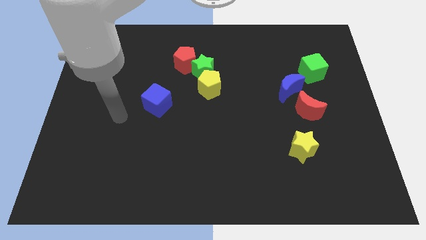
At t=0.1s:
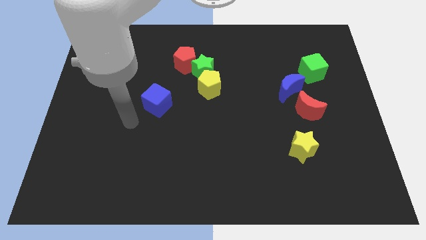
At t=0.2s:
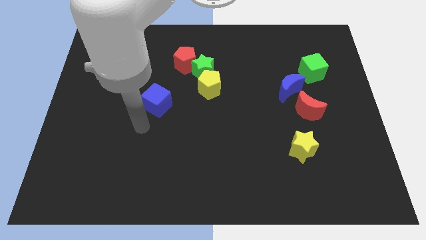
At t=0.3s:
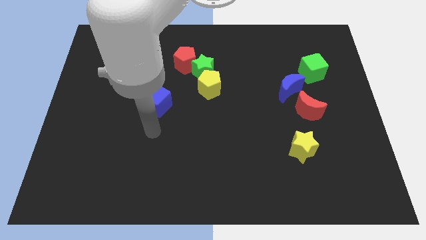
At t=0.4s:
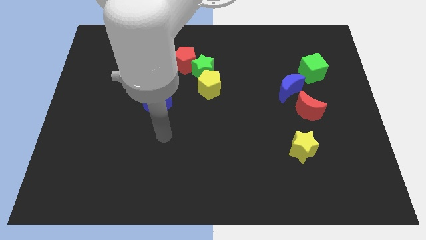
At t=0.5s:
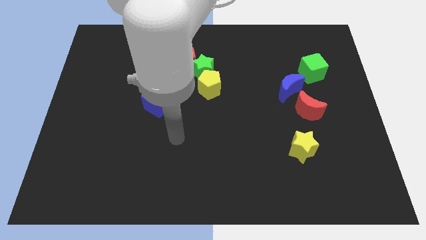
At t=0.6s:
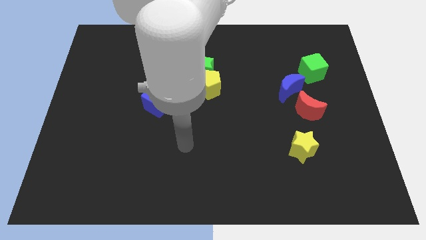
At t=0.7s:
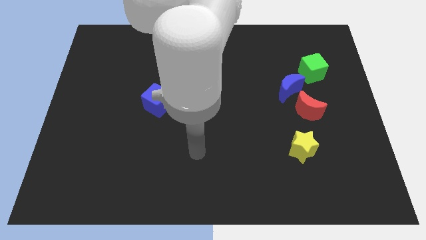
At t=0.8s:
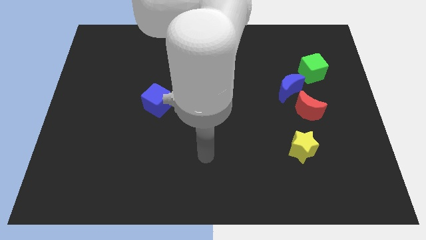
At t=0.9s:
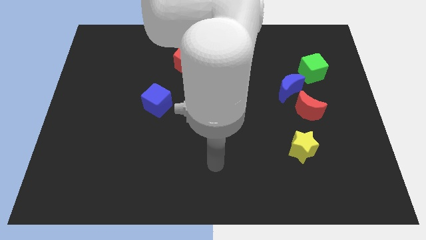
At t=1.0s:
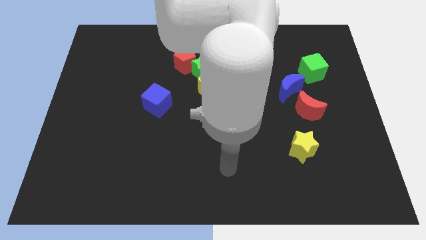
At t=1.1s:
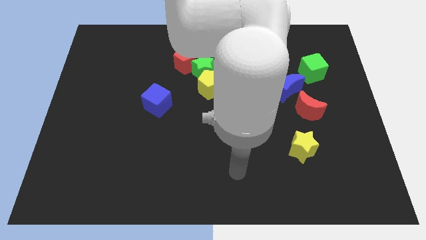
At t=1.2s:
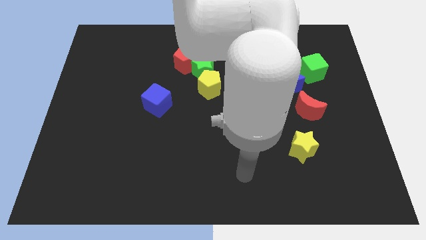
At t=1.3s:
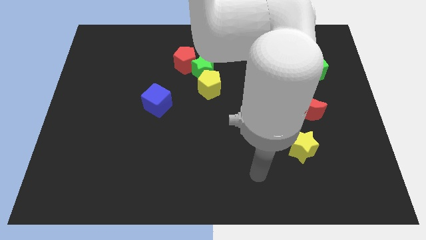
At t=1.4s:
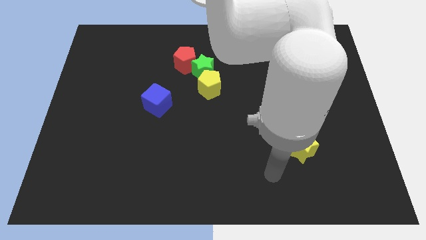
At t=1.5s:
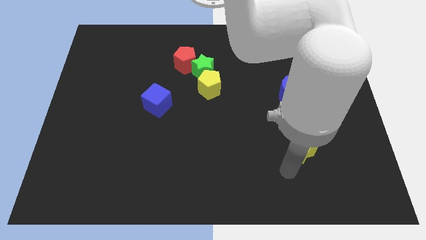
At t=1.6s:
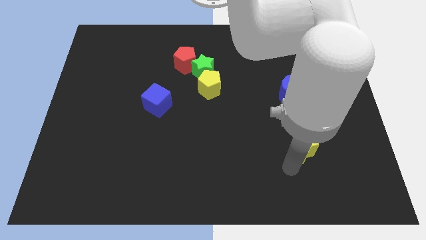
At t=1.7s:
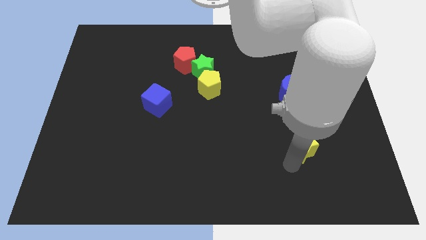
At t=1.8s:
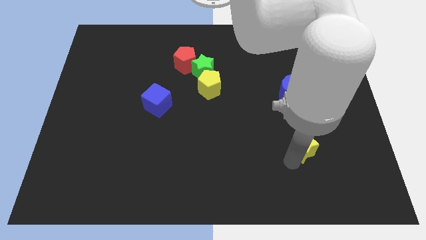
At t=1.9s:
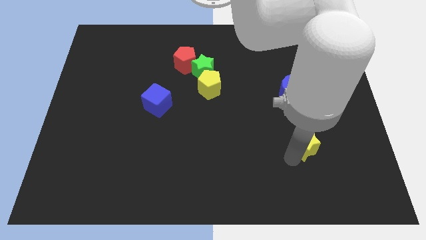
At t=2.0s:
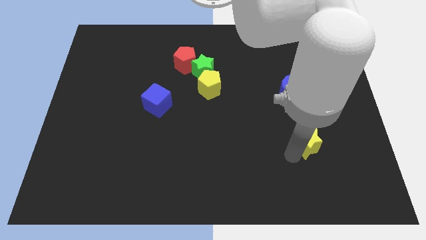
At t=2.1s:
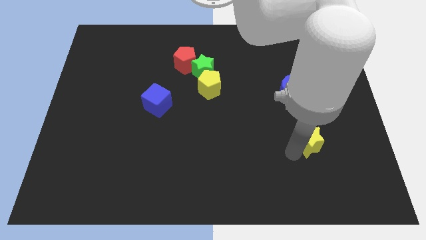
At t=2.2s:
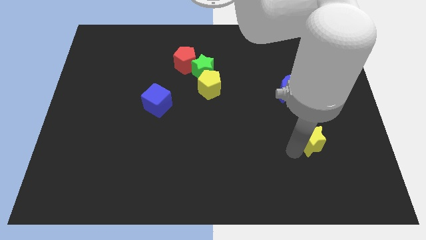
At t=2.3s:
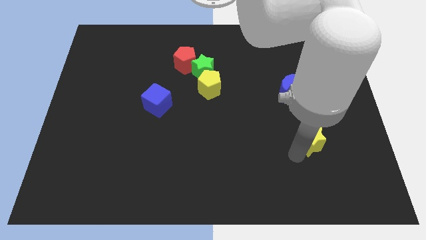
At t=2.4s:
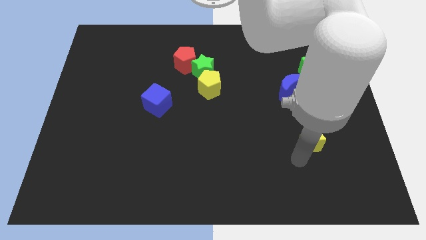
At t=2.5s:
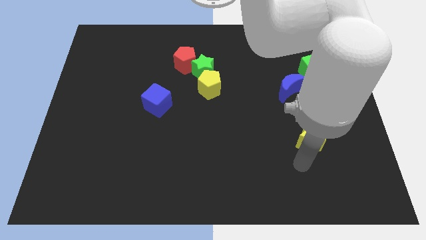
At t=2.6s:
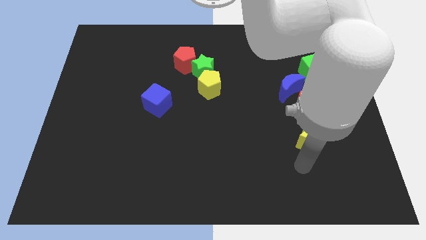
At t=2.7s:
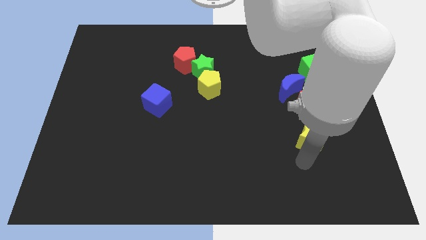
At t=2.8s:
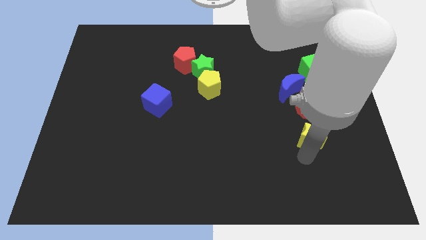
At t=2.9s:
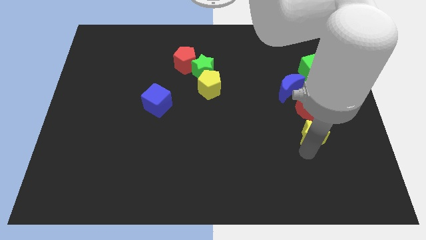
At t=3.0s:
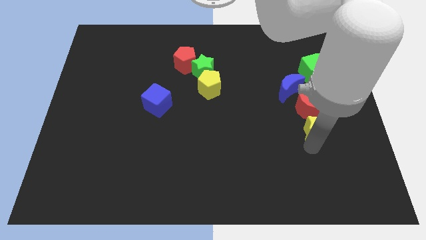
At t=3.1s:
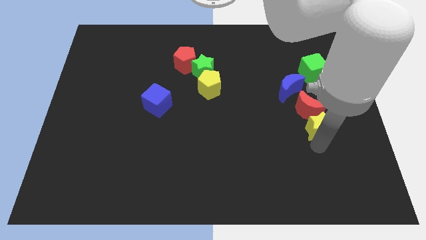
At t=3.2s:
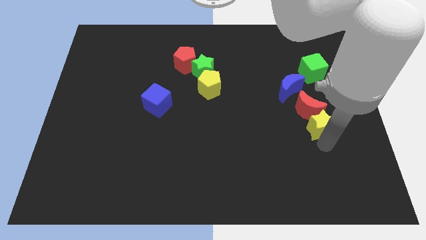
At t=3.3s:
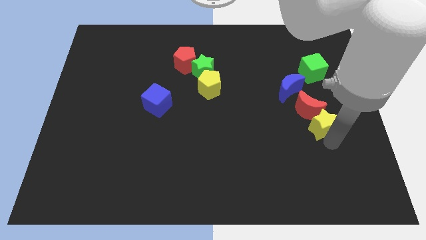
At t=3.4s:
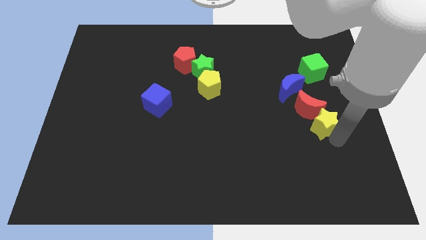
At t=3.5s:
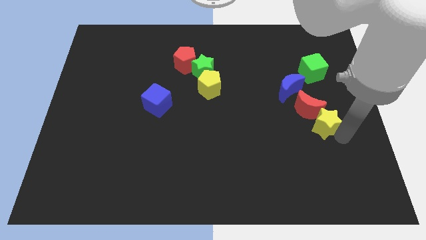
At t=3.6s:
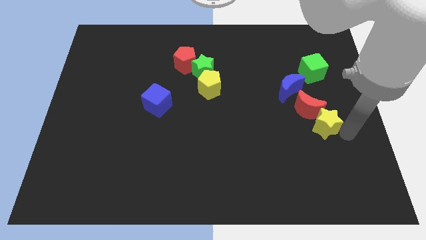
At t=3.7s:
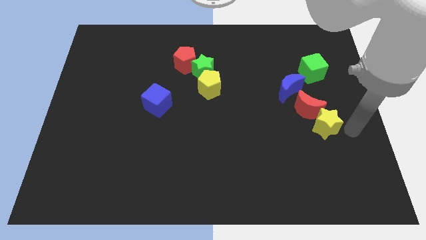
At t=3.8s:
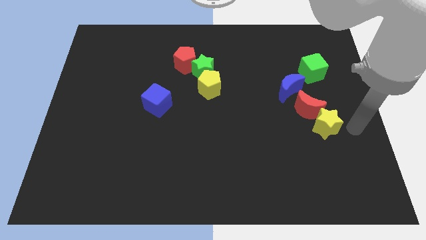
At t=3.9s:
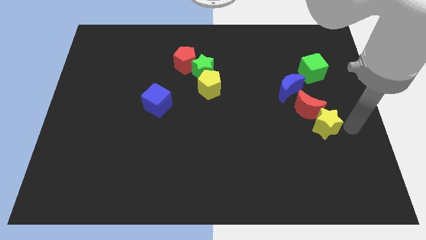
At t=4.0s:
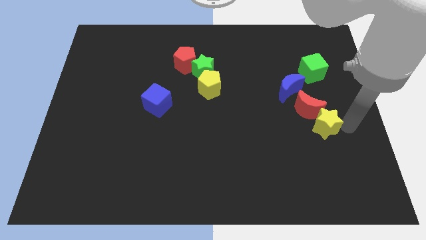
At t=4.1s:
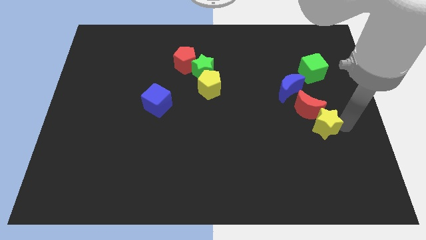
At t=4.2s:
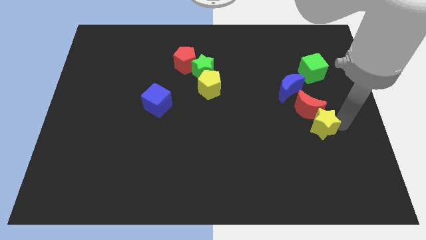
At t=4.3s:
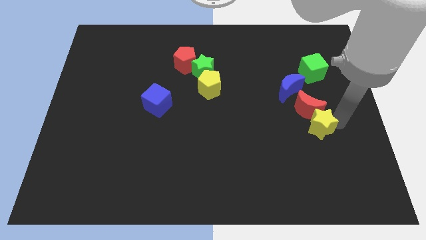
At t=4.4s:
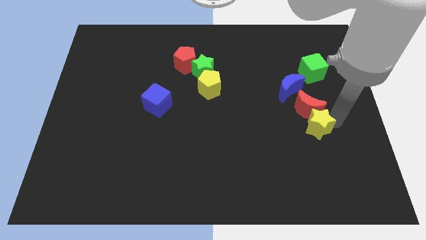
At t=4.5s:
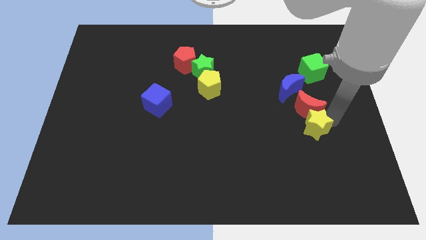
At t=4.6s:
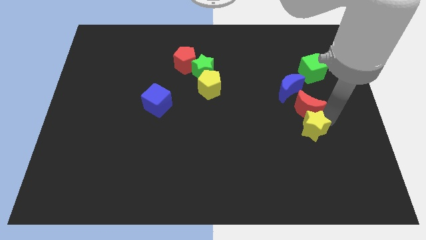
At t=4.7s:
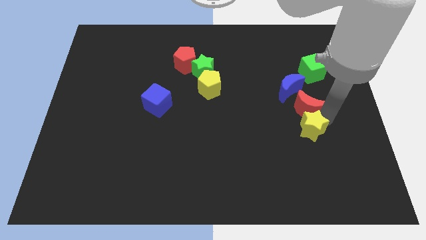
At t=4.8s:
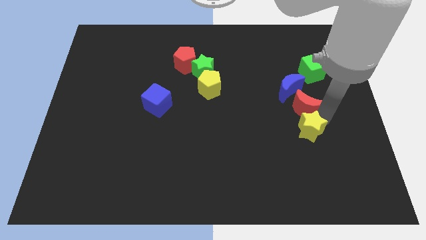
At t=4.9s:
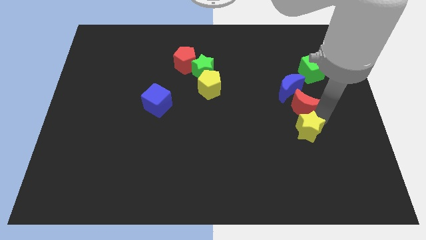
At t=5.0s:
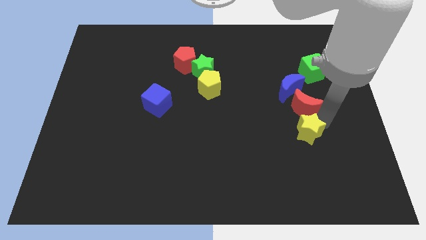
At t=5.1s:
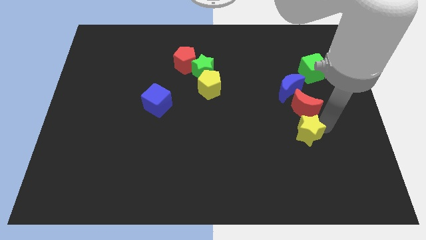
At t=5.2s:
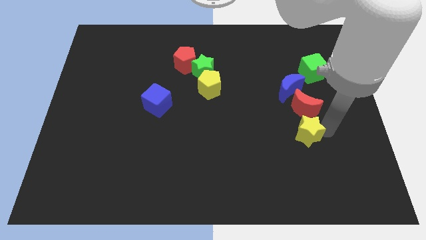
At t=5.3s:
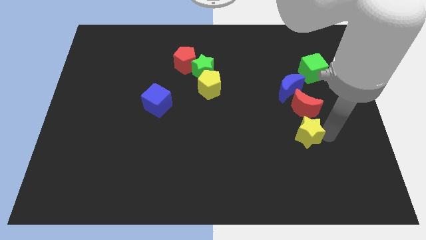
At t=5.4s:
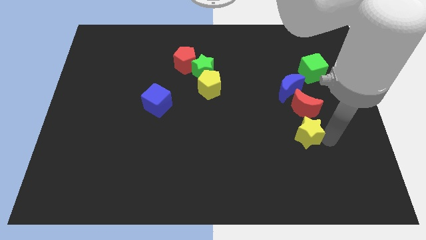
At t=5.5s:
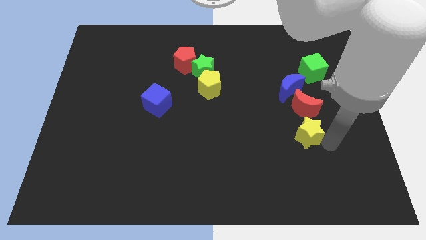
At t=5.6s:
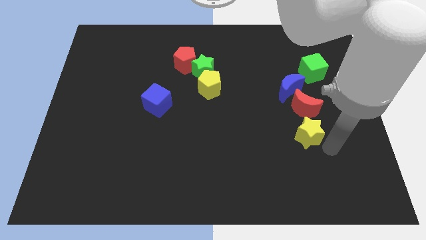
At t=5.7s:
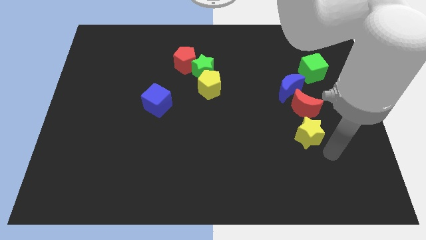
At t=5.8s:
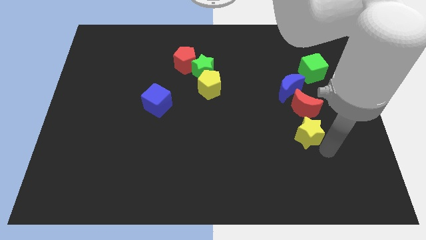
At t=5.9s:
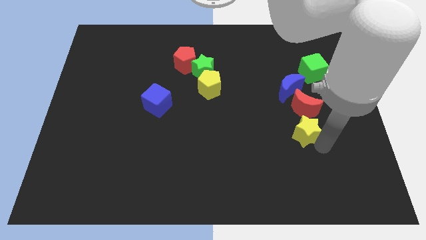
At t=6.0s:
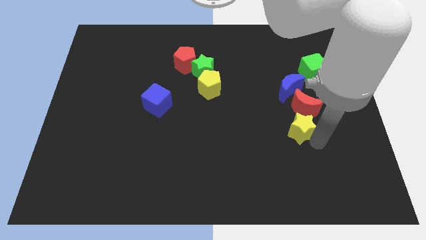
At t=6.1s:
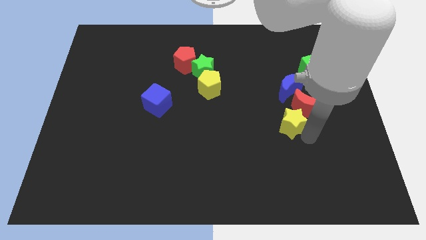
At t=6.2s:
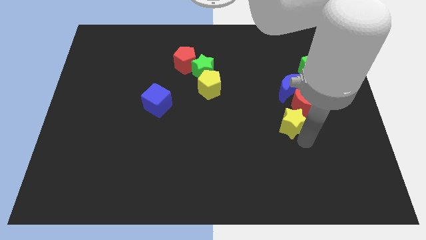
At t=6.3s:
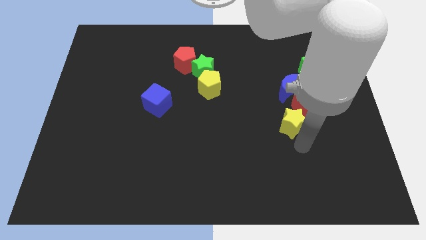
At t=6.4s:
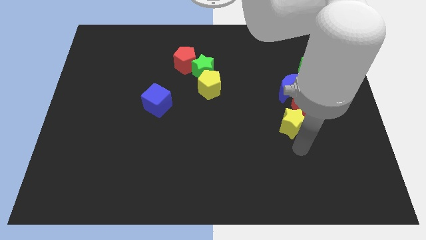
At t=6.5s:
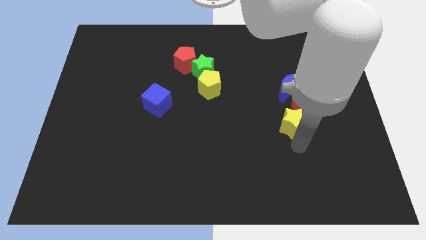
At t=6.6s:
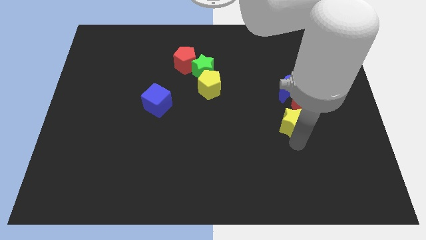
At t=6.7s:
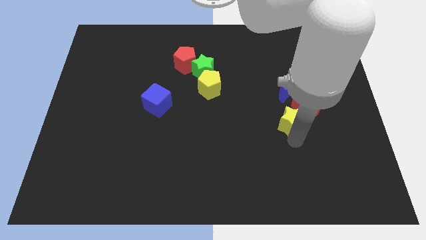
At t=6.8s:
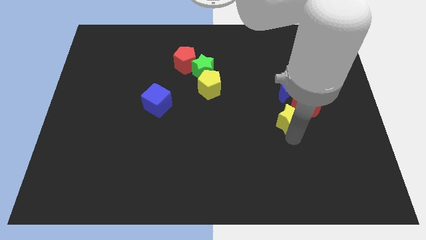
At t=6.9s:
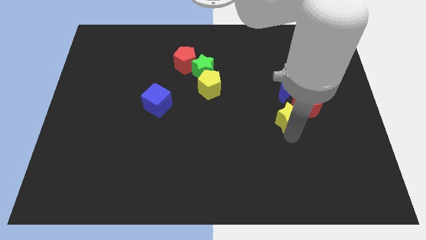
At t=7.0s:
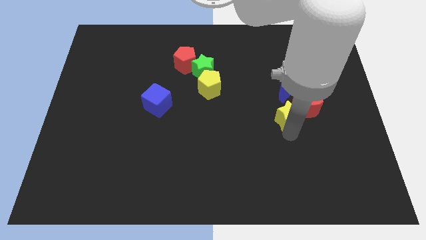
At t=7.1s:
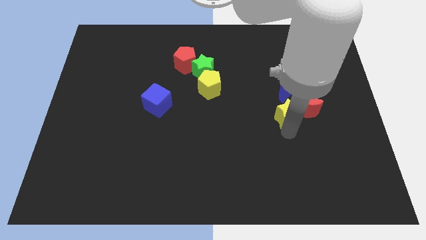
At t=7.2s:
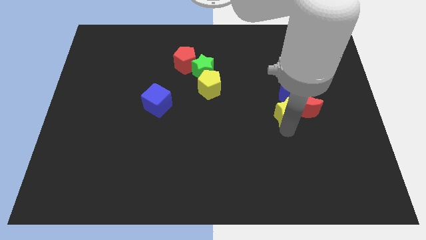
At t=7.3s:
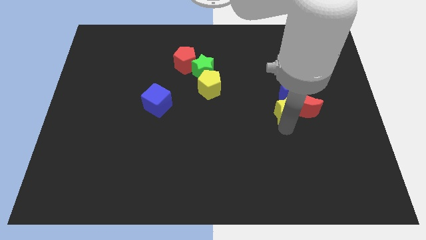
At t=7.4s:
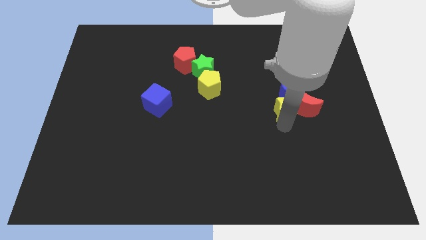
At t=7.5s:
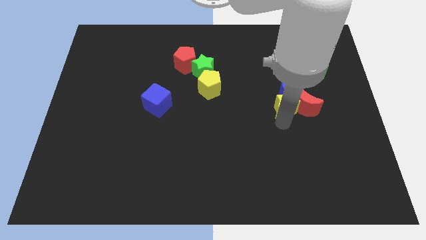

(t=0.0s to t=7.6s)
slide the yellow star close to the blue moon
